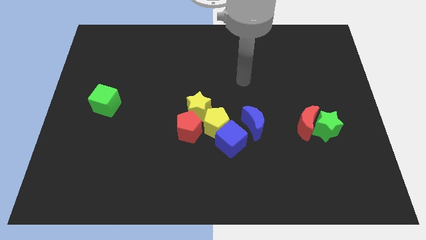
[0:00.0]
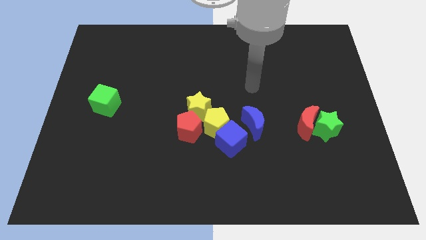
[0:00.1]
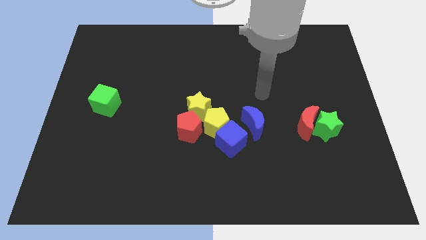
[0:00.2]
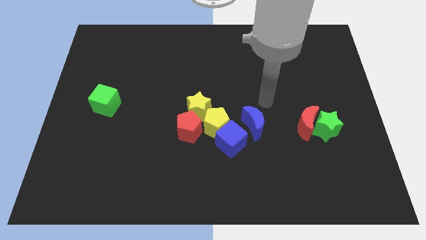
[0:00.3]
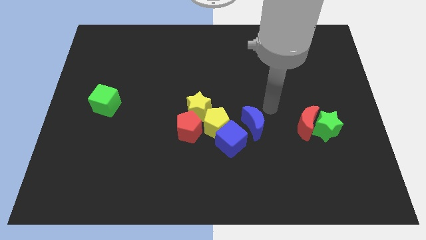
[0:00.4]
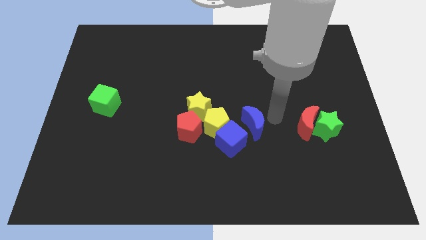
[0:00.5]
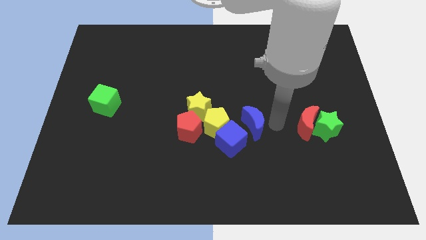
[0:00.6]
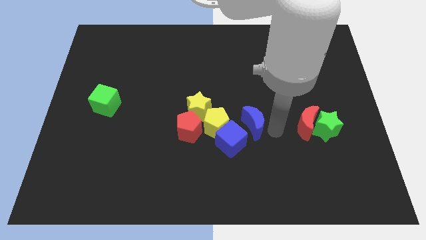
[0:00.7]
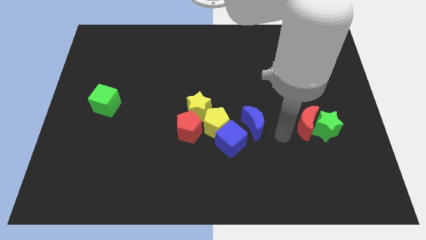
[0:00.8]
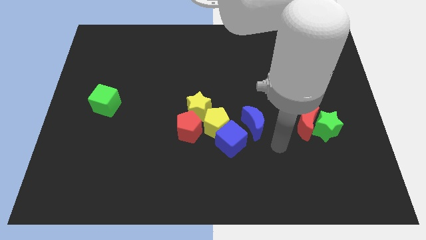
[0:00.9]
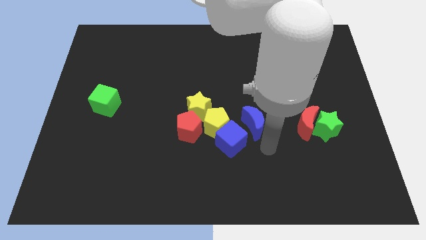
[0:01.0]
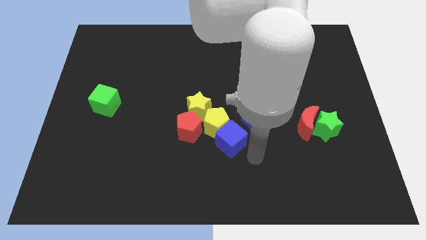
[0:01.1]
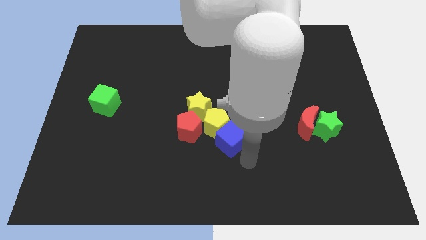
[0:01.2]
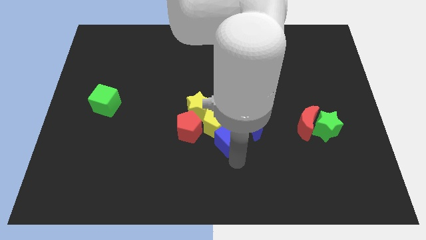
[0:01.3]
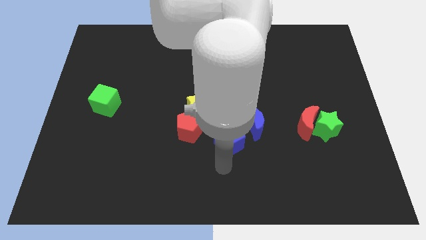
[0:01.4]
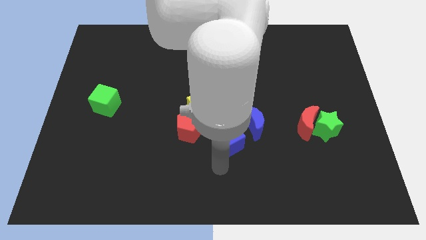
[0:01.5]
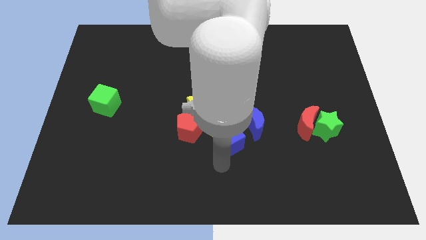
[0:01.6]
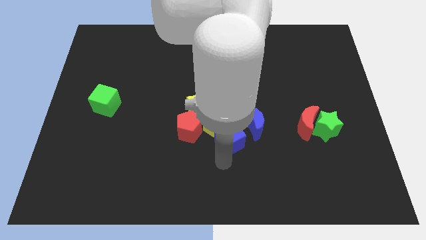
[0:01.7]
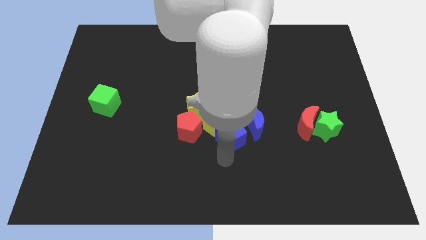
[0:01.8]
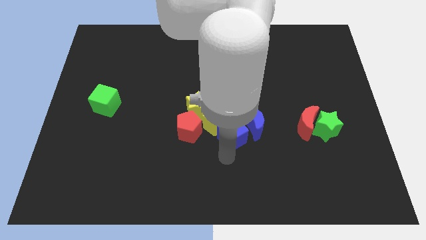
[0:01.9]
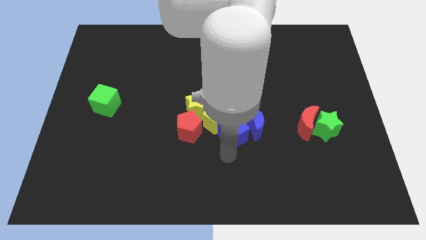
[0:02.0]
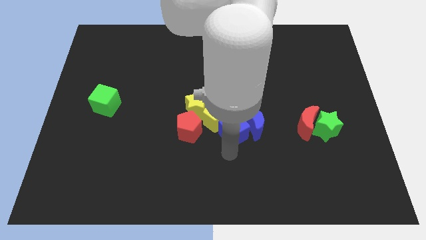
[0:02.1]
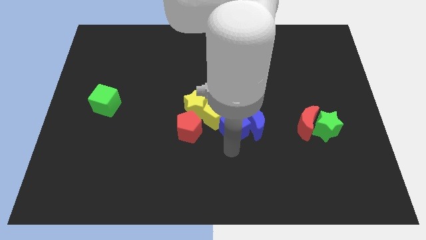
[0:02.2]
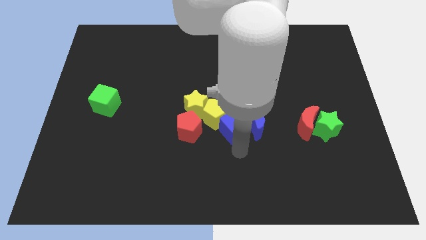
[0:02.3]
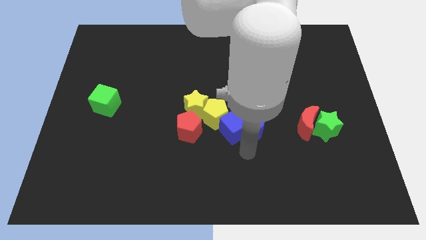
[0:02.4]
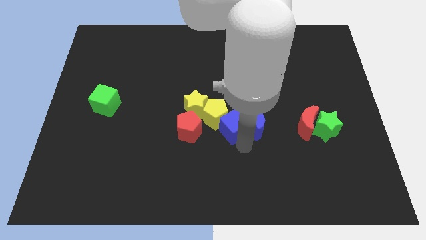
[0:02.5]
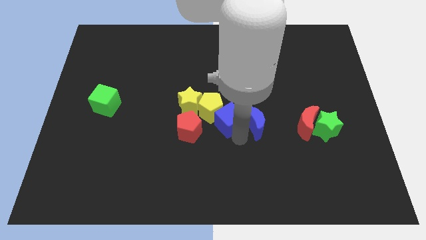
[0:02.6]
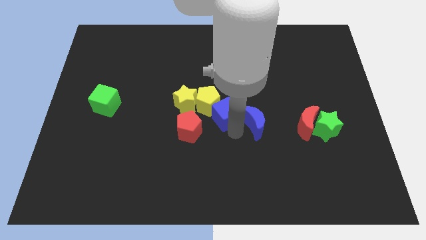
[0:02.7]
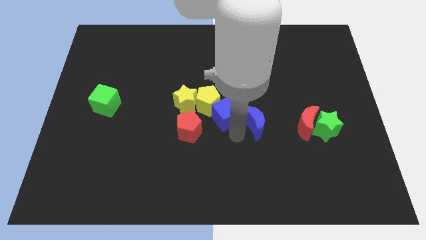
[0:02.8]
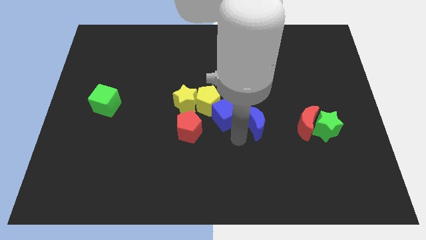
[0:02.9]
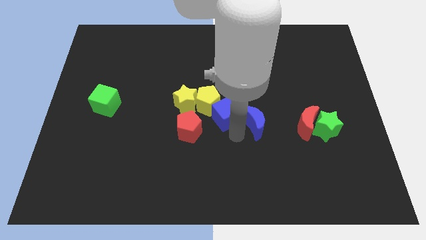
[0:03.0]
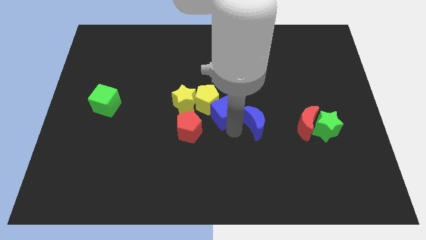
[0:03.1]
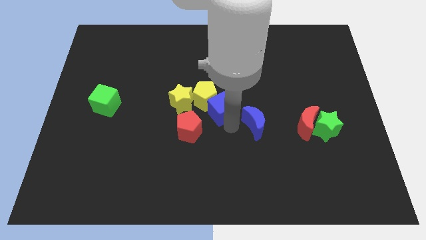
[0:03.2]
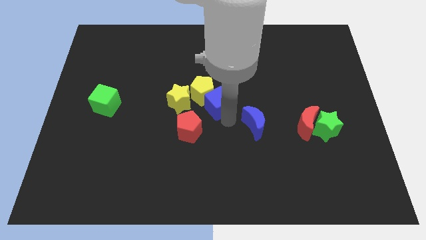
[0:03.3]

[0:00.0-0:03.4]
slide the blue cube upwards and to the left a little

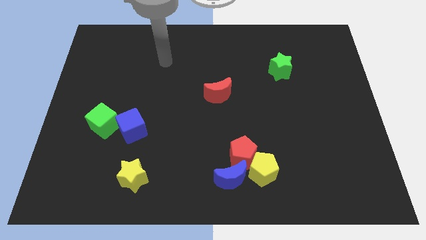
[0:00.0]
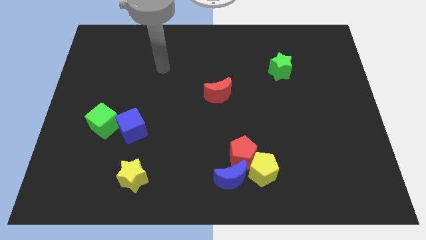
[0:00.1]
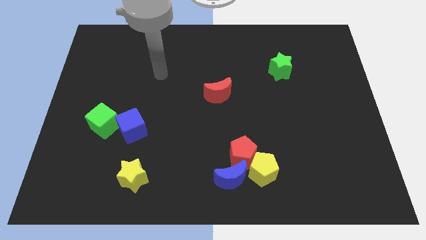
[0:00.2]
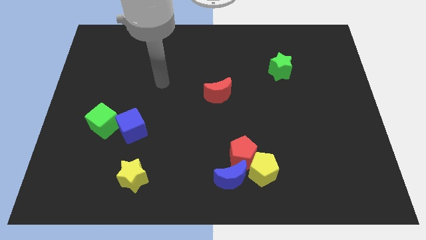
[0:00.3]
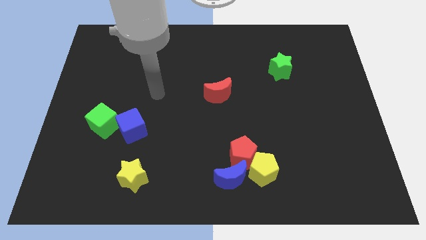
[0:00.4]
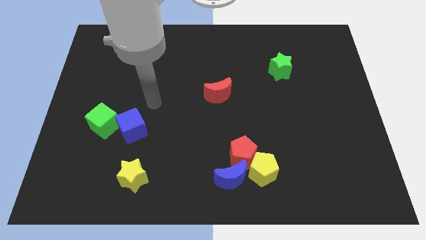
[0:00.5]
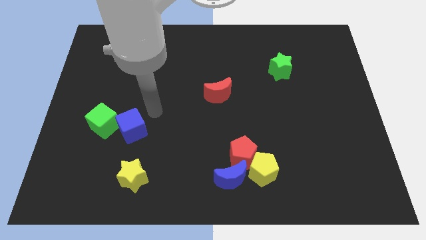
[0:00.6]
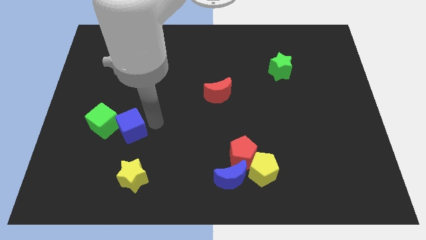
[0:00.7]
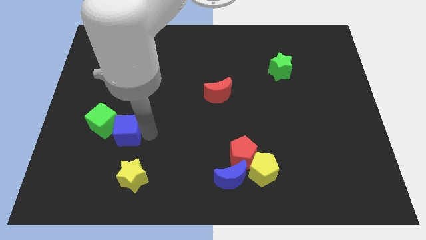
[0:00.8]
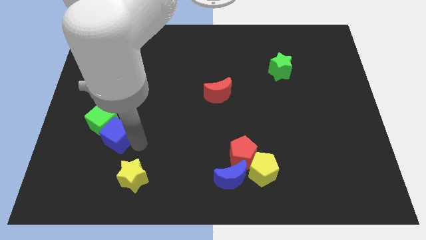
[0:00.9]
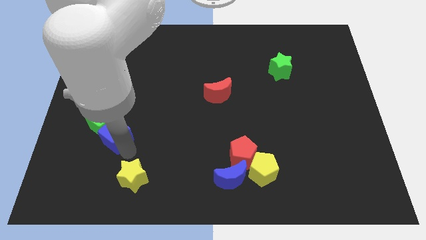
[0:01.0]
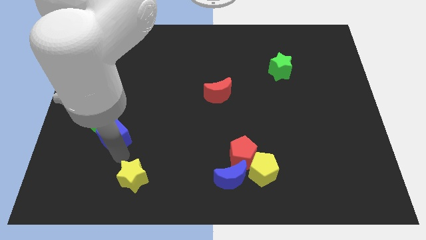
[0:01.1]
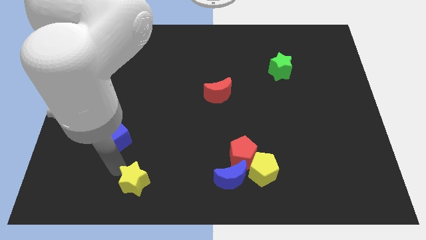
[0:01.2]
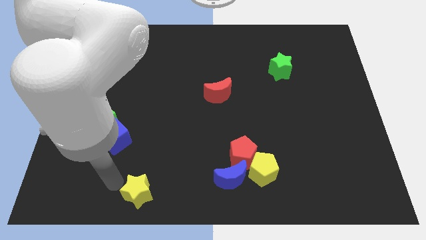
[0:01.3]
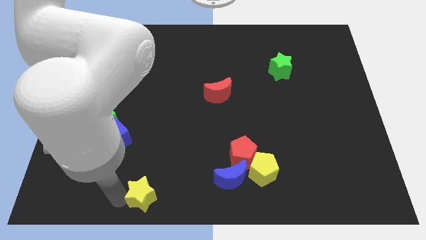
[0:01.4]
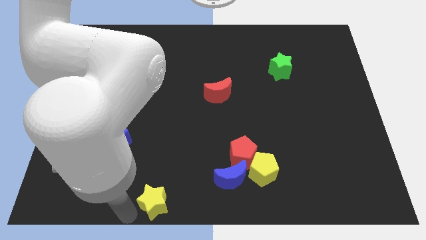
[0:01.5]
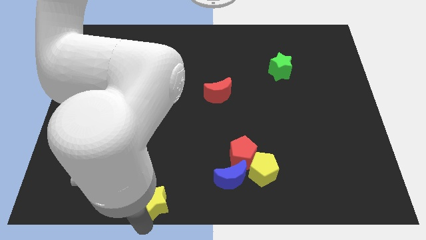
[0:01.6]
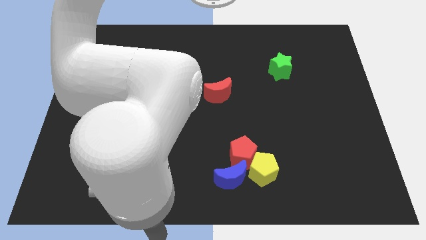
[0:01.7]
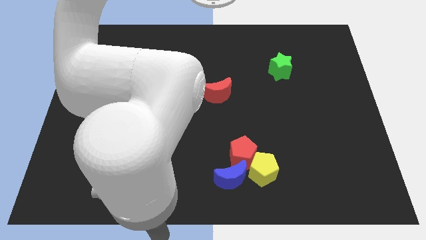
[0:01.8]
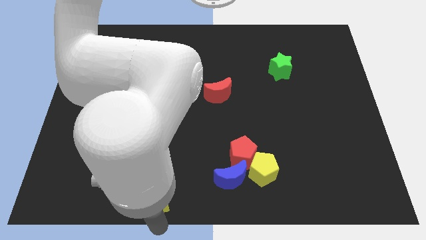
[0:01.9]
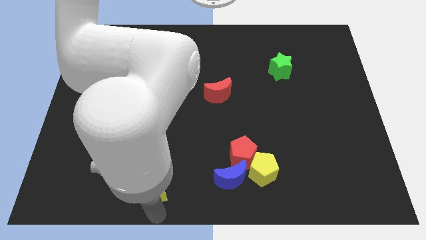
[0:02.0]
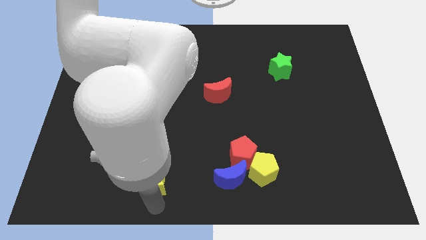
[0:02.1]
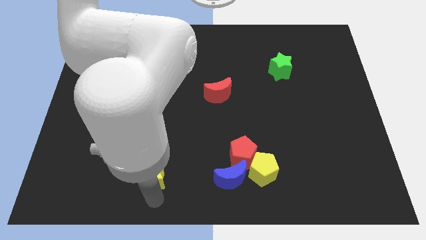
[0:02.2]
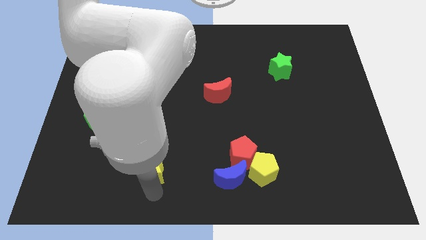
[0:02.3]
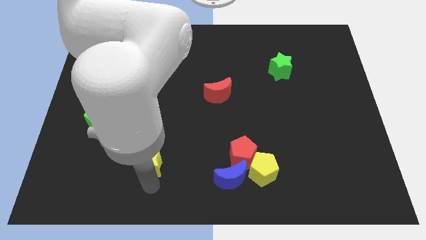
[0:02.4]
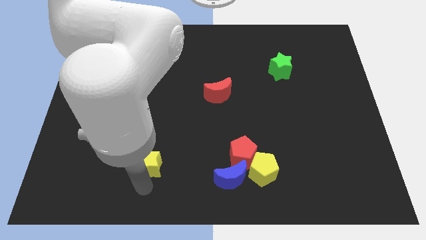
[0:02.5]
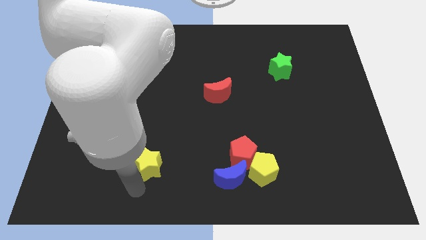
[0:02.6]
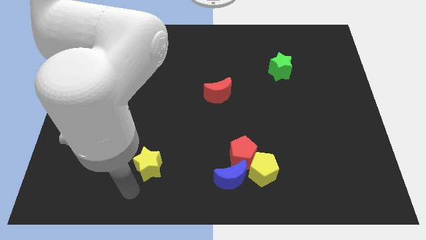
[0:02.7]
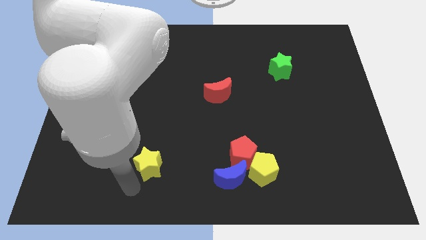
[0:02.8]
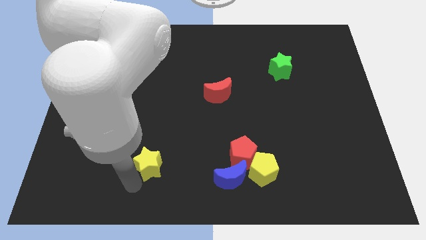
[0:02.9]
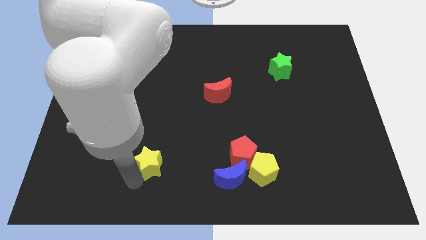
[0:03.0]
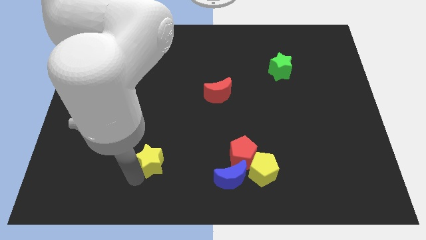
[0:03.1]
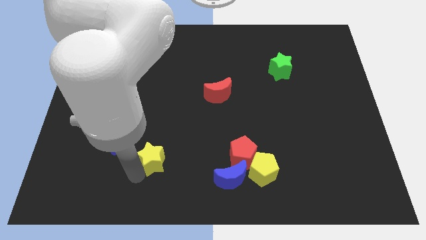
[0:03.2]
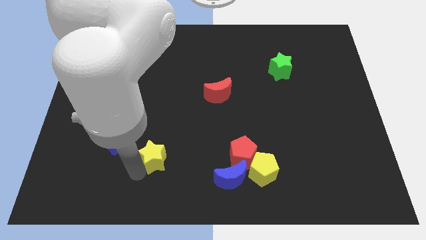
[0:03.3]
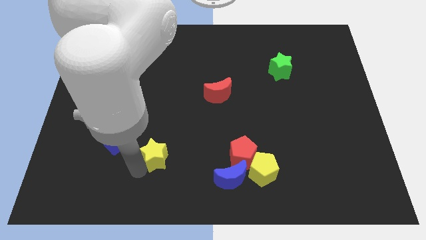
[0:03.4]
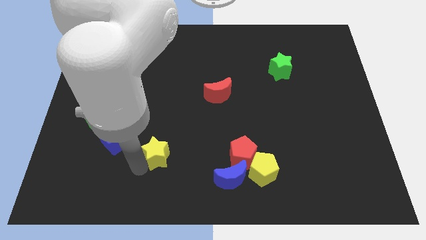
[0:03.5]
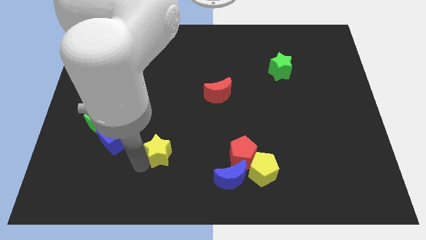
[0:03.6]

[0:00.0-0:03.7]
push the yellow star up and then right a bit

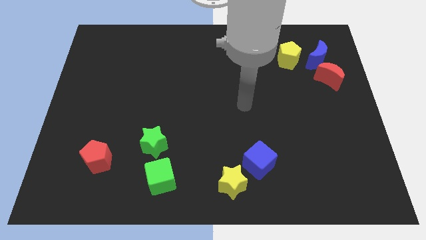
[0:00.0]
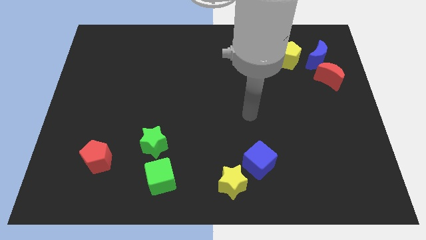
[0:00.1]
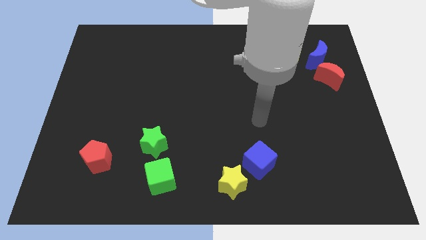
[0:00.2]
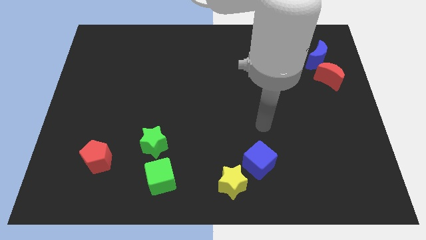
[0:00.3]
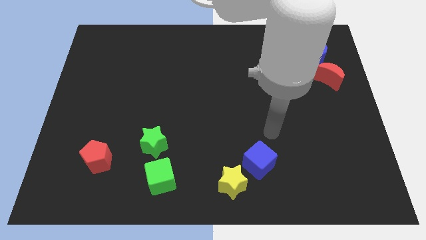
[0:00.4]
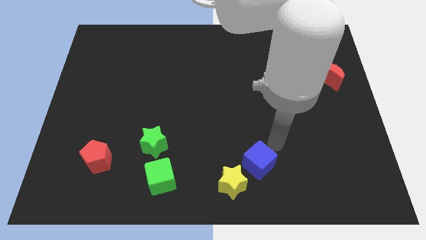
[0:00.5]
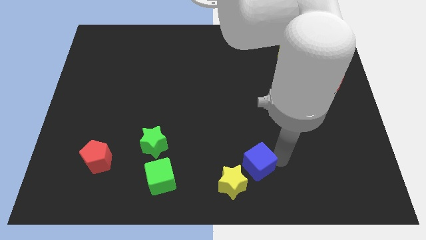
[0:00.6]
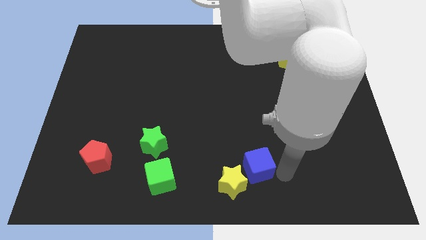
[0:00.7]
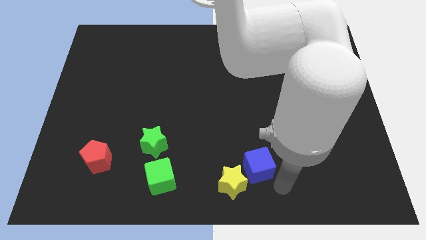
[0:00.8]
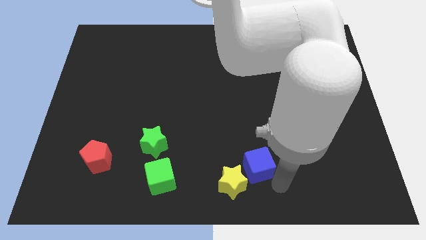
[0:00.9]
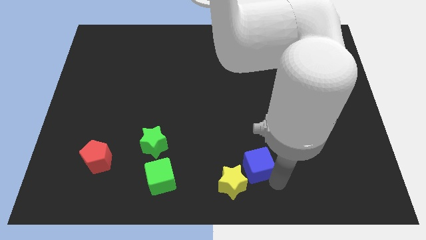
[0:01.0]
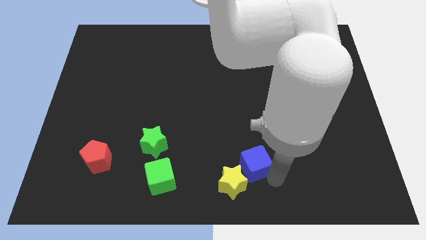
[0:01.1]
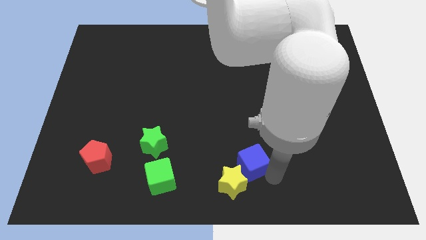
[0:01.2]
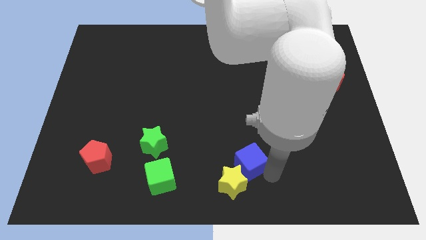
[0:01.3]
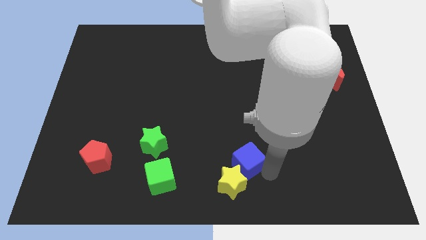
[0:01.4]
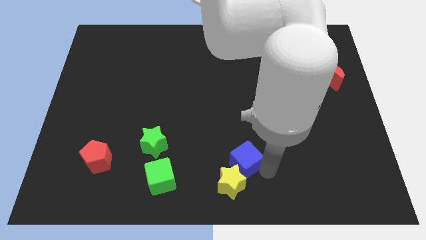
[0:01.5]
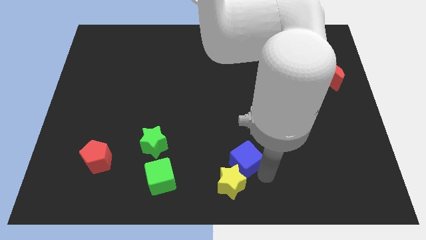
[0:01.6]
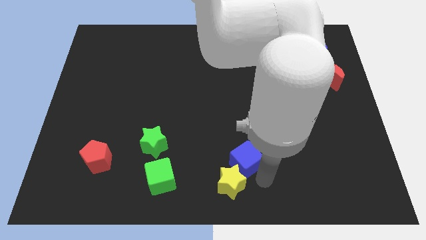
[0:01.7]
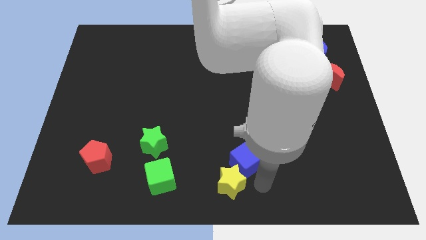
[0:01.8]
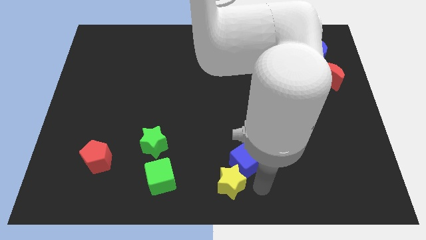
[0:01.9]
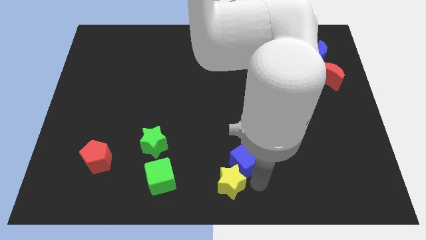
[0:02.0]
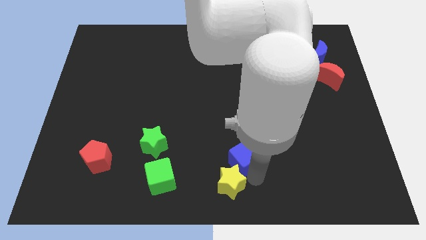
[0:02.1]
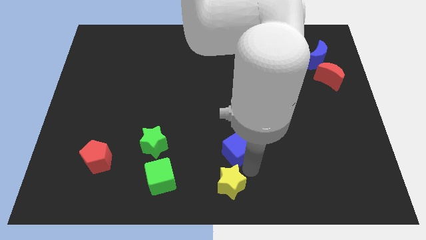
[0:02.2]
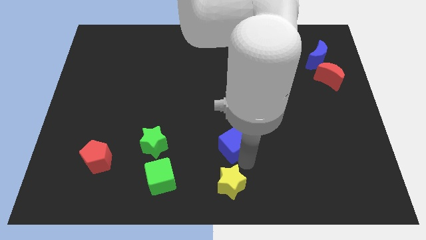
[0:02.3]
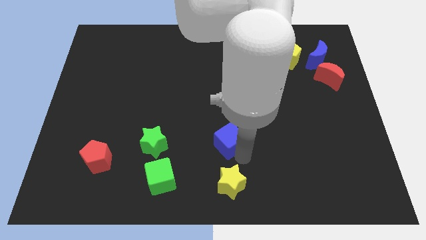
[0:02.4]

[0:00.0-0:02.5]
slide the blue cube upwards and then left a bit
